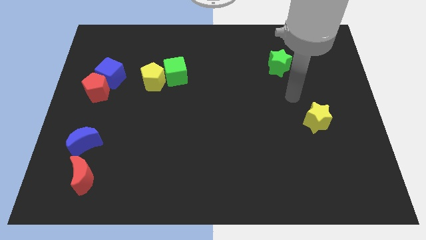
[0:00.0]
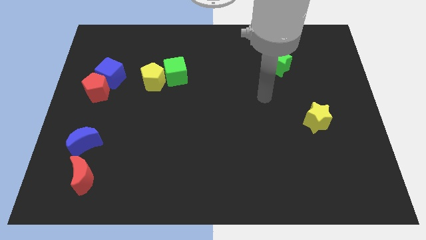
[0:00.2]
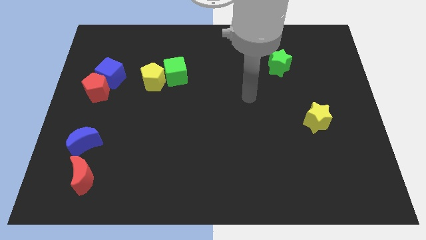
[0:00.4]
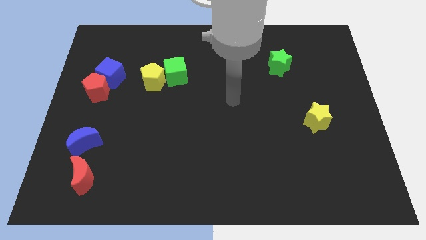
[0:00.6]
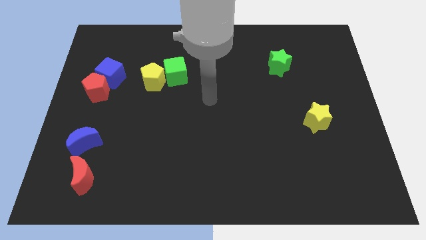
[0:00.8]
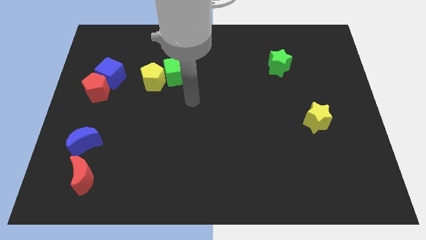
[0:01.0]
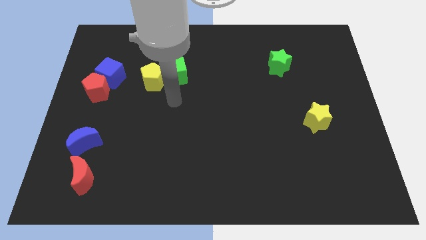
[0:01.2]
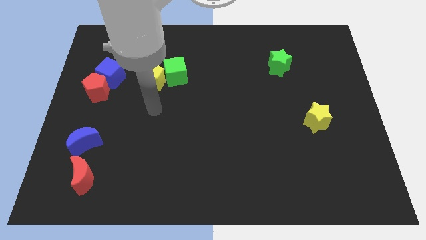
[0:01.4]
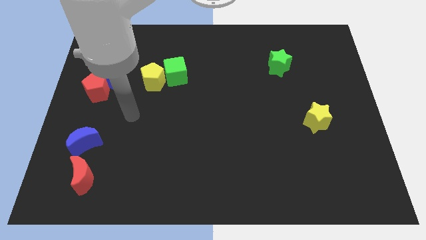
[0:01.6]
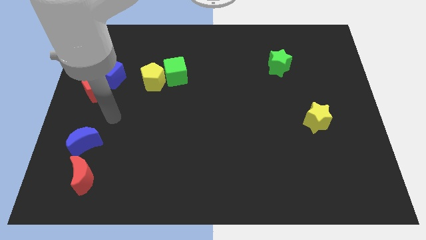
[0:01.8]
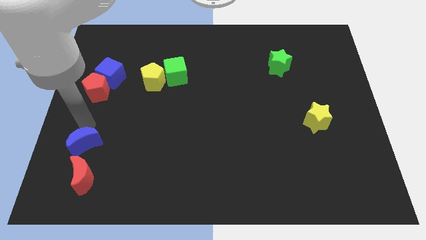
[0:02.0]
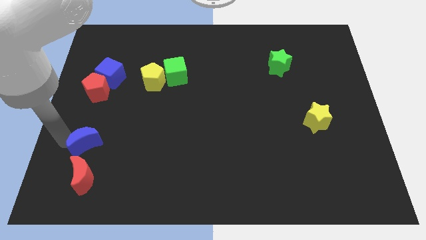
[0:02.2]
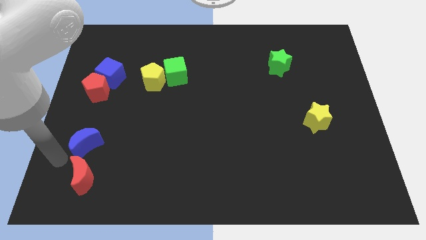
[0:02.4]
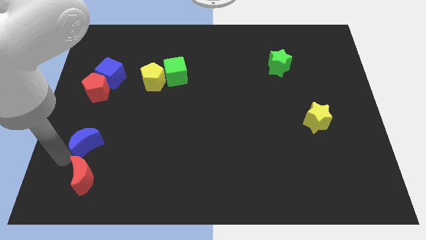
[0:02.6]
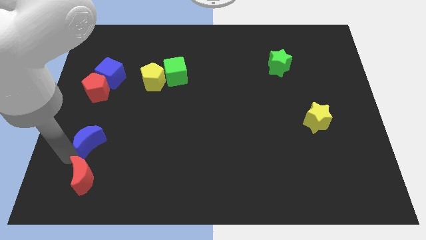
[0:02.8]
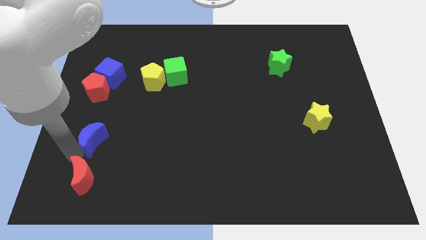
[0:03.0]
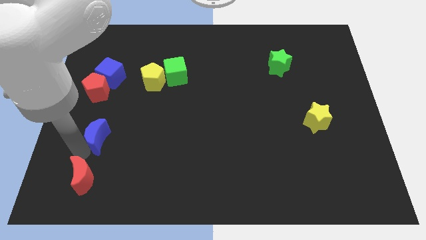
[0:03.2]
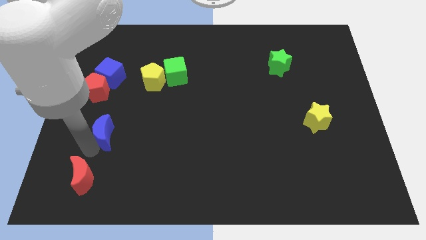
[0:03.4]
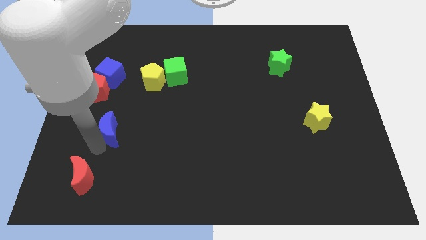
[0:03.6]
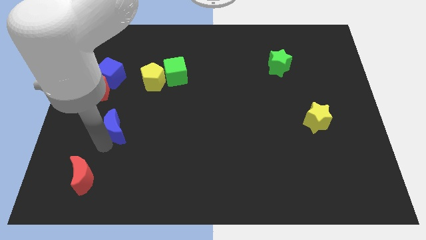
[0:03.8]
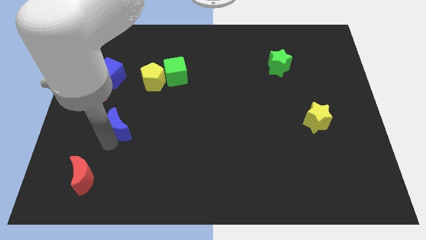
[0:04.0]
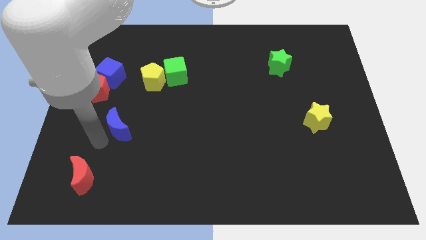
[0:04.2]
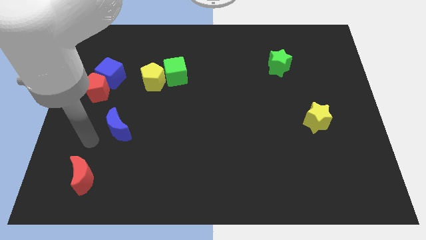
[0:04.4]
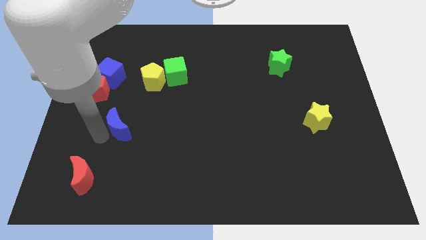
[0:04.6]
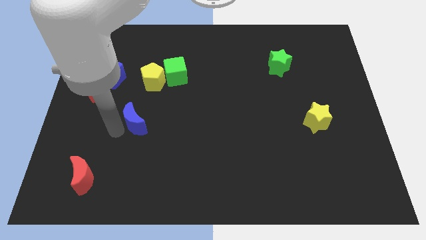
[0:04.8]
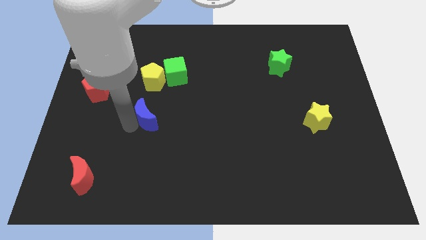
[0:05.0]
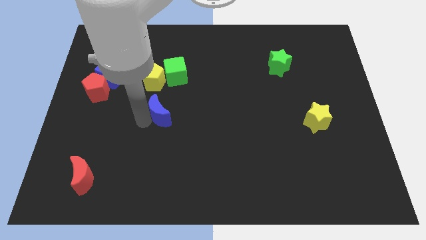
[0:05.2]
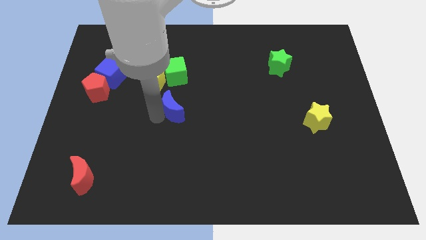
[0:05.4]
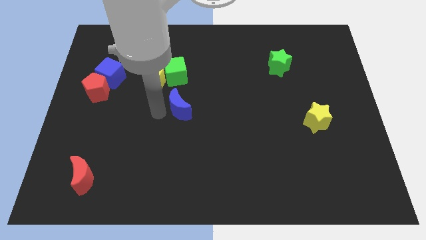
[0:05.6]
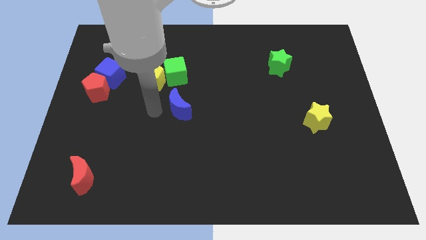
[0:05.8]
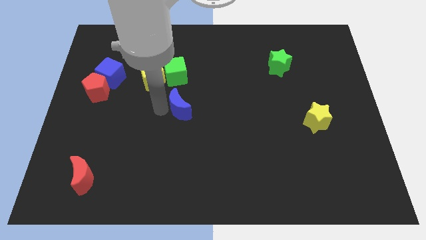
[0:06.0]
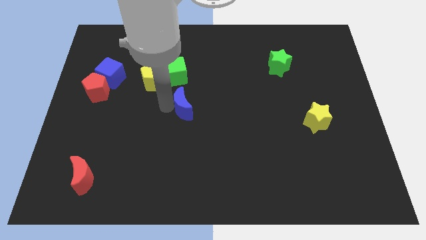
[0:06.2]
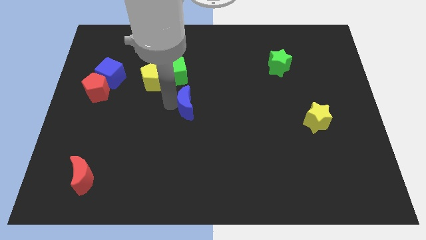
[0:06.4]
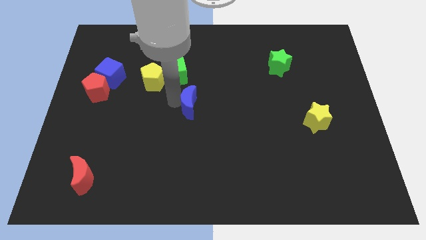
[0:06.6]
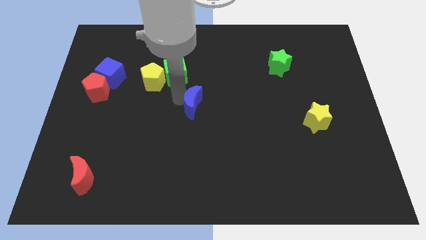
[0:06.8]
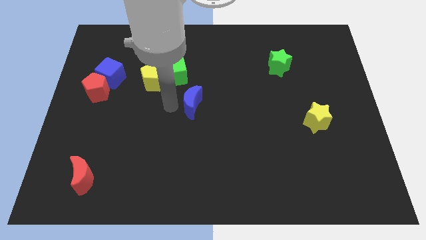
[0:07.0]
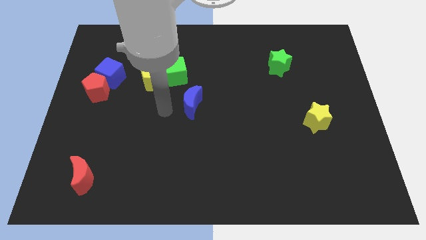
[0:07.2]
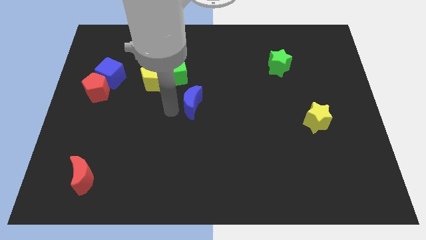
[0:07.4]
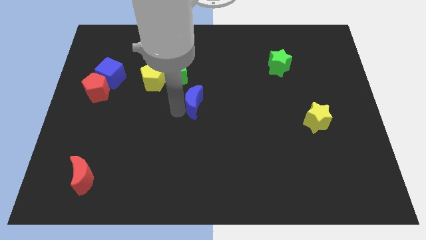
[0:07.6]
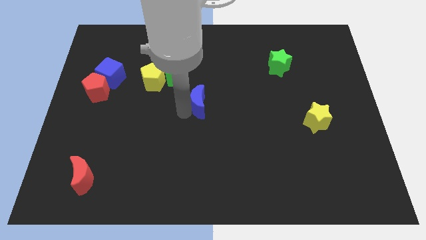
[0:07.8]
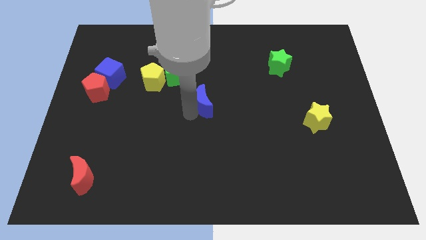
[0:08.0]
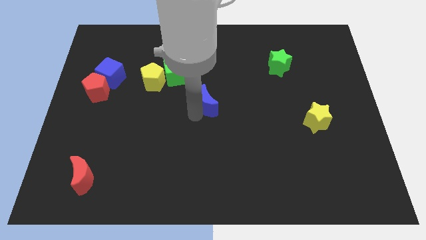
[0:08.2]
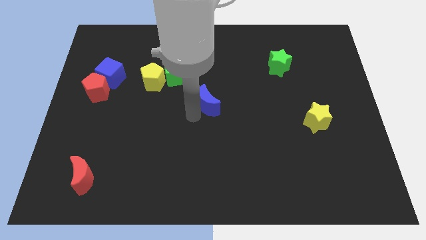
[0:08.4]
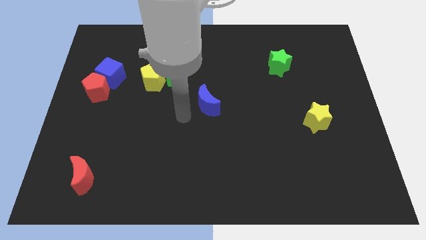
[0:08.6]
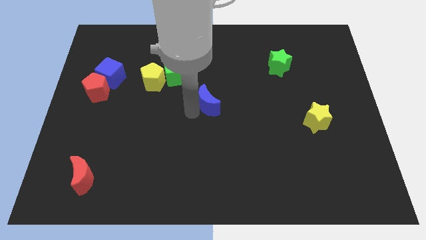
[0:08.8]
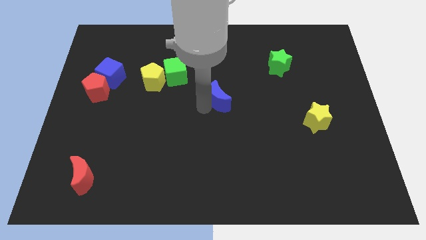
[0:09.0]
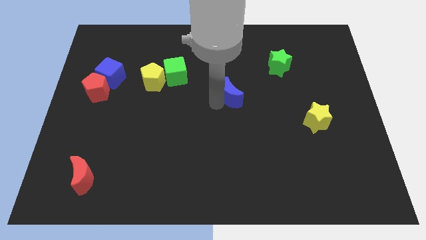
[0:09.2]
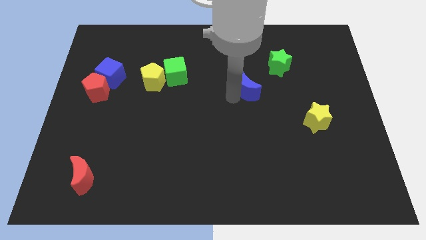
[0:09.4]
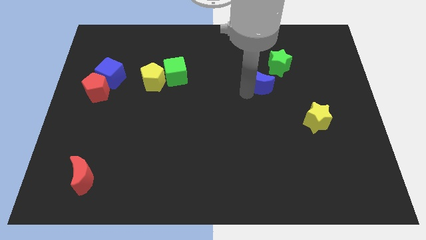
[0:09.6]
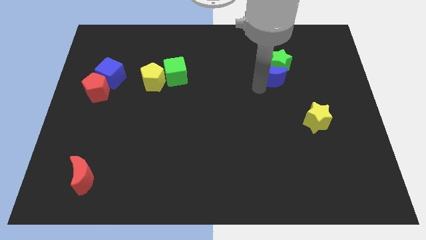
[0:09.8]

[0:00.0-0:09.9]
move the blue moon towards the green star

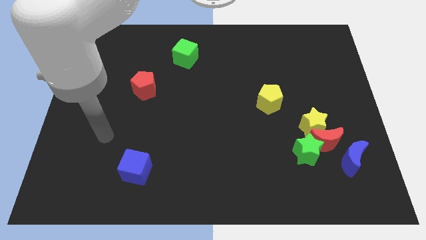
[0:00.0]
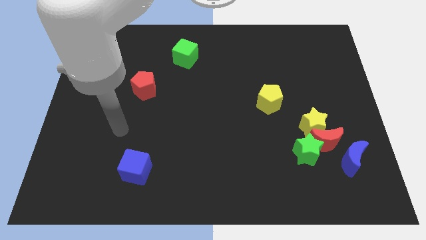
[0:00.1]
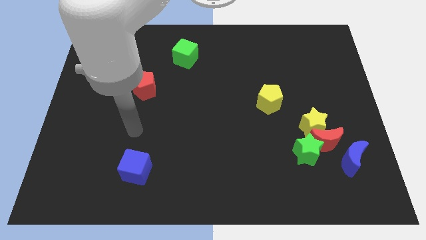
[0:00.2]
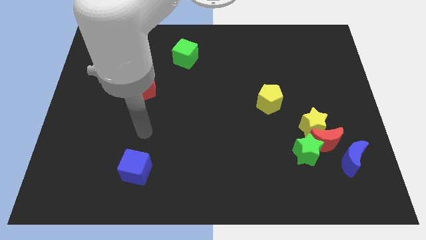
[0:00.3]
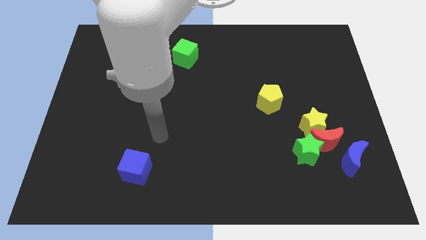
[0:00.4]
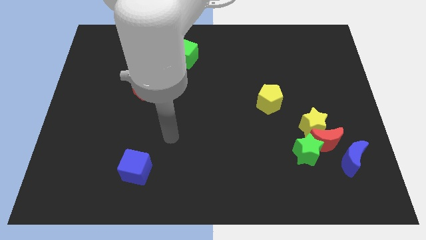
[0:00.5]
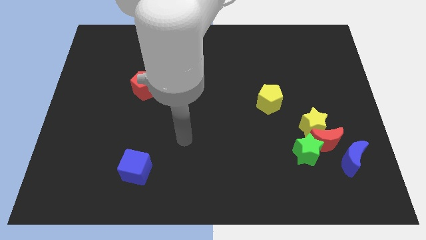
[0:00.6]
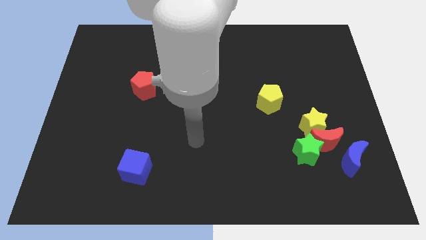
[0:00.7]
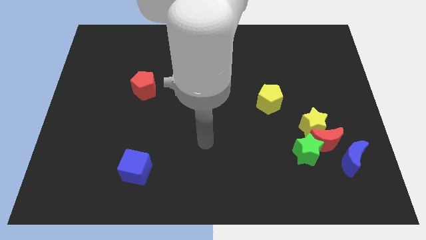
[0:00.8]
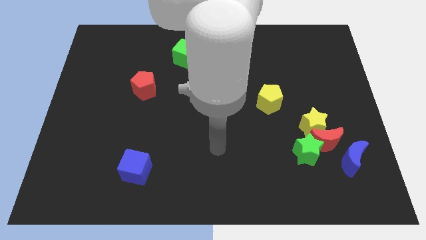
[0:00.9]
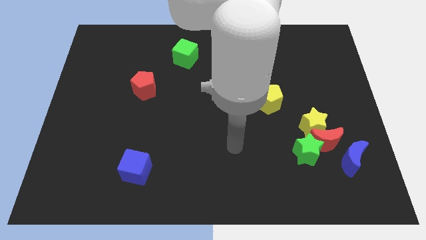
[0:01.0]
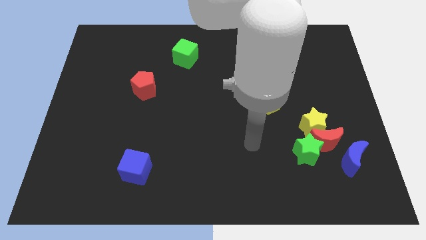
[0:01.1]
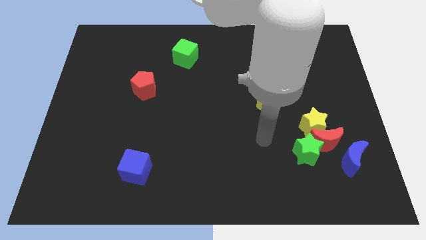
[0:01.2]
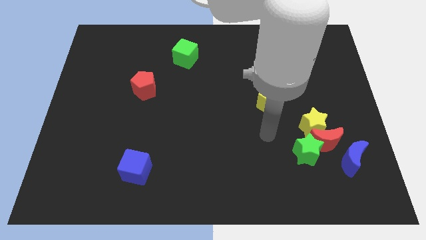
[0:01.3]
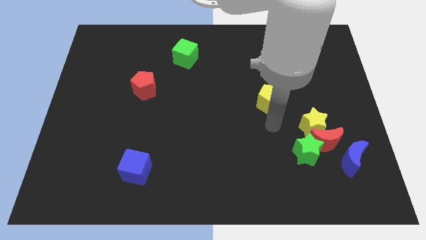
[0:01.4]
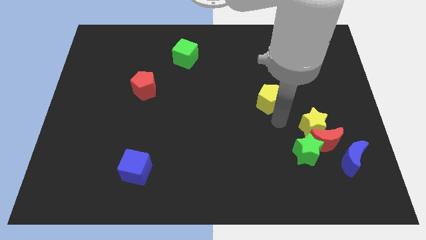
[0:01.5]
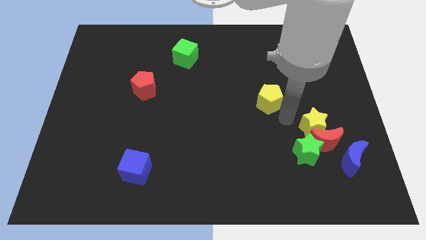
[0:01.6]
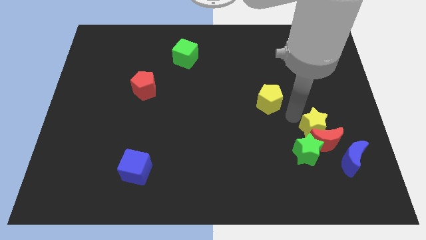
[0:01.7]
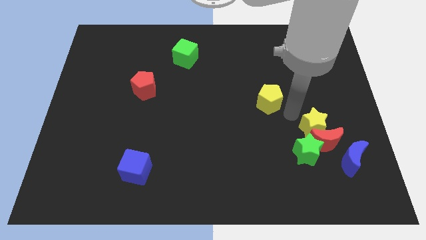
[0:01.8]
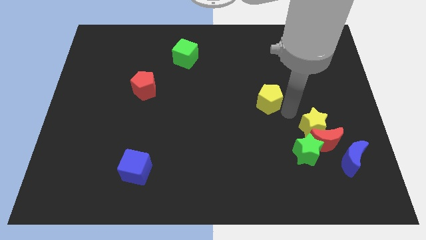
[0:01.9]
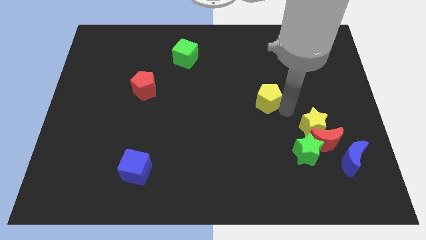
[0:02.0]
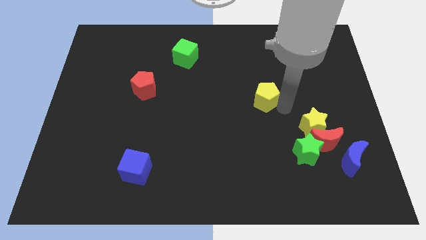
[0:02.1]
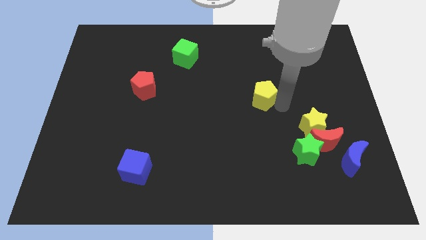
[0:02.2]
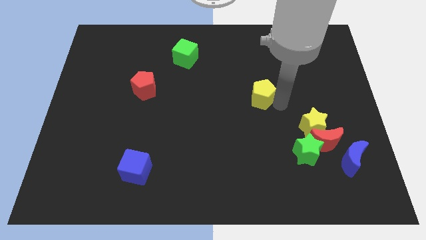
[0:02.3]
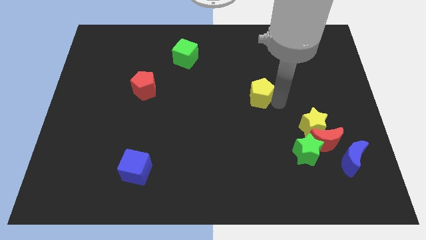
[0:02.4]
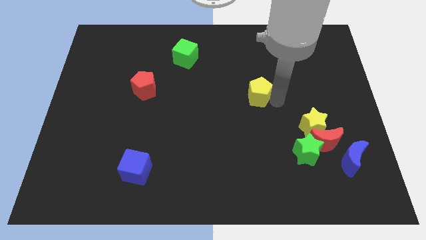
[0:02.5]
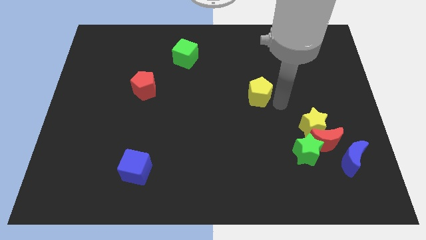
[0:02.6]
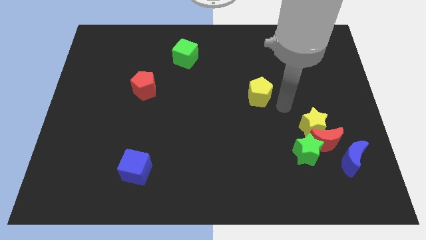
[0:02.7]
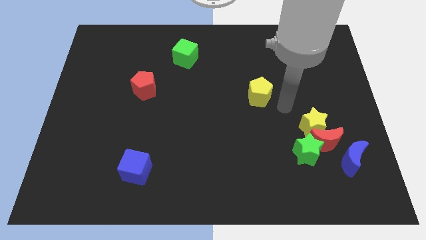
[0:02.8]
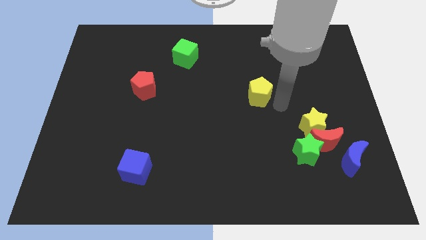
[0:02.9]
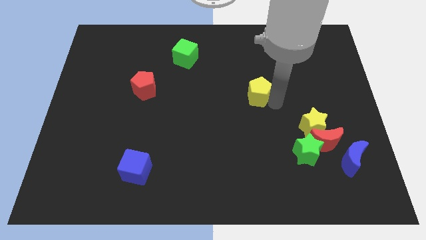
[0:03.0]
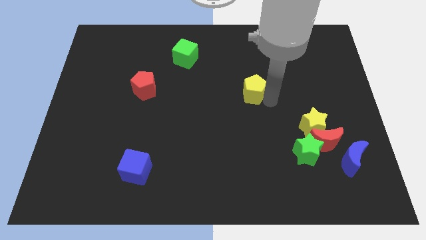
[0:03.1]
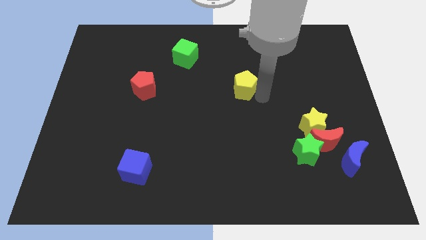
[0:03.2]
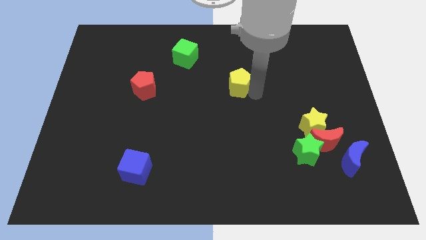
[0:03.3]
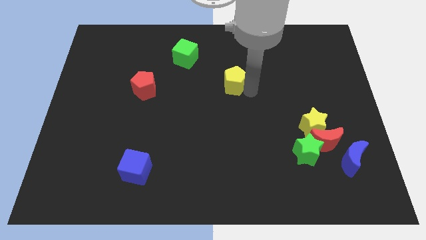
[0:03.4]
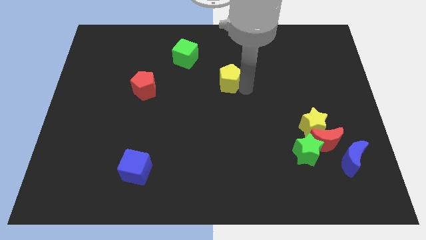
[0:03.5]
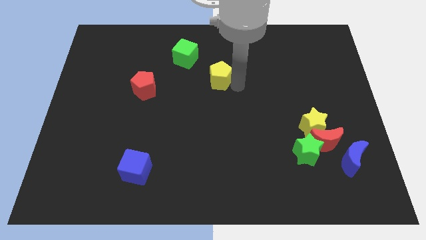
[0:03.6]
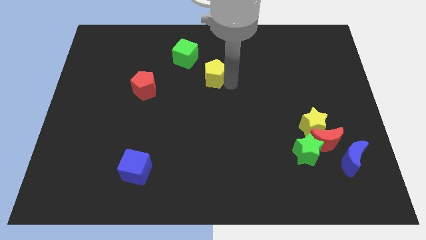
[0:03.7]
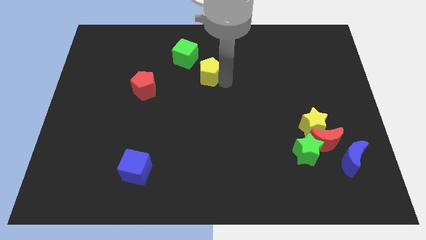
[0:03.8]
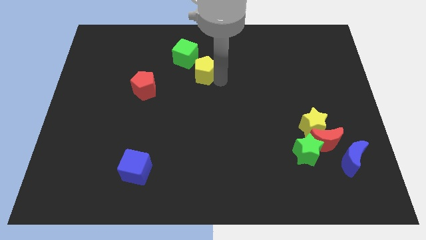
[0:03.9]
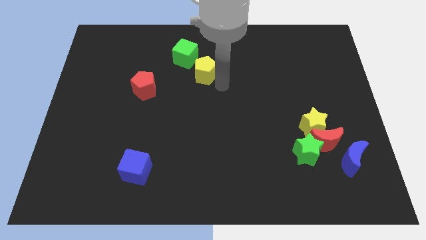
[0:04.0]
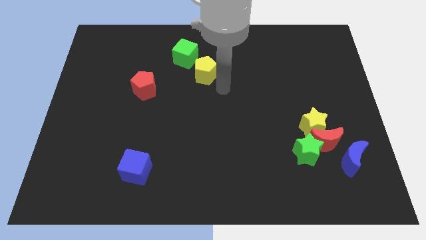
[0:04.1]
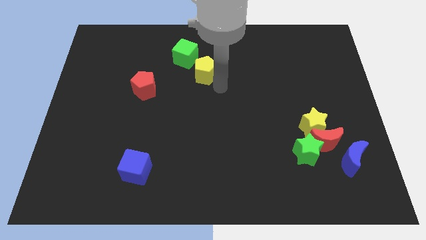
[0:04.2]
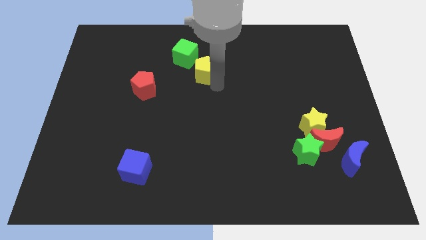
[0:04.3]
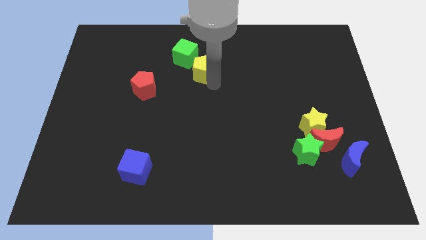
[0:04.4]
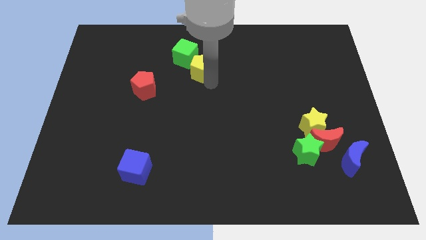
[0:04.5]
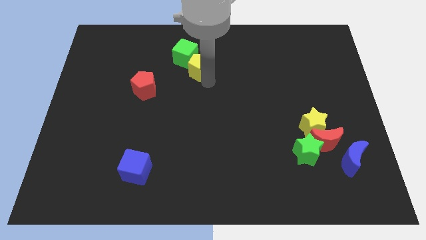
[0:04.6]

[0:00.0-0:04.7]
slide the yellow pentagon to the green cube
